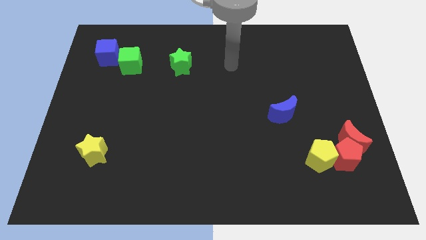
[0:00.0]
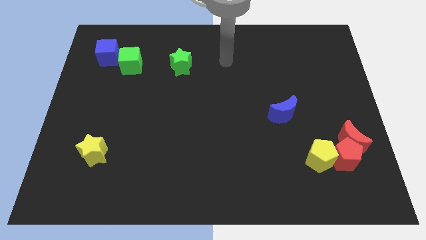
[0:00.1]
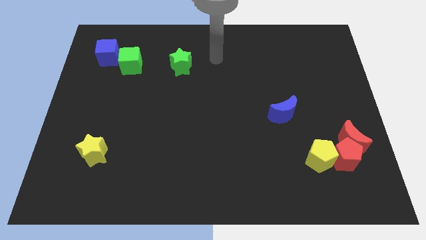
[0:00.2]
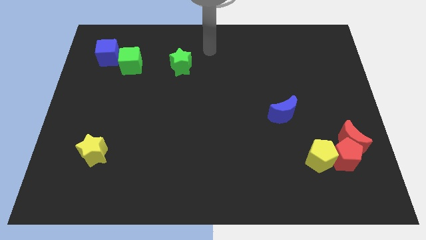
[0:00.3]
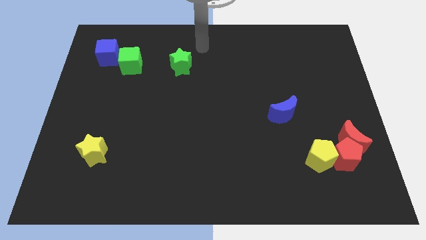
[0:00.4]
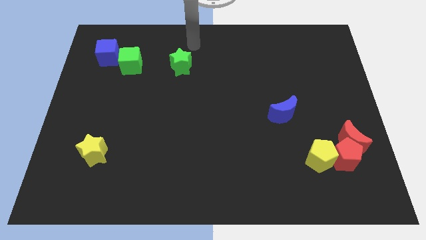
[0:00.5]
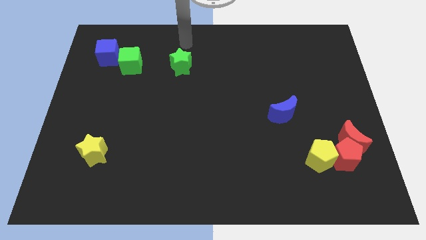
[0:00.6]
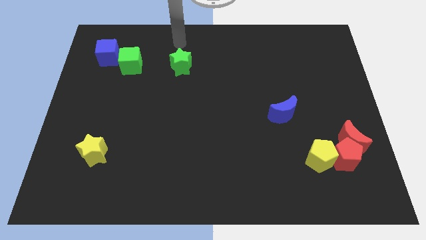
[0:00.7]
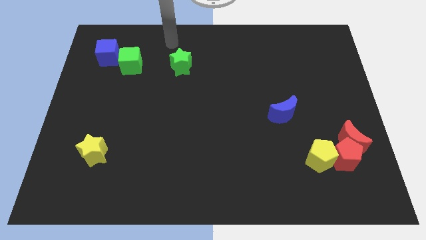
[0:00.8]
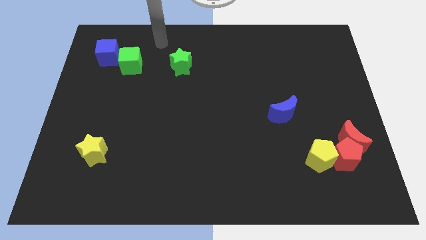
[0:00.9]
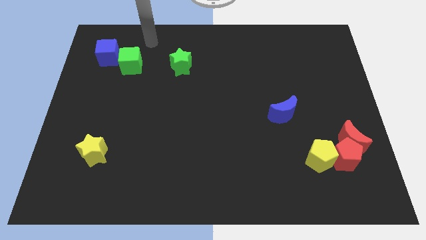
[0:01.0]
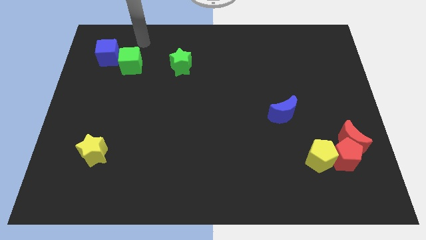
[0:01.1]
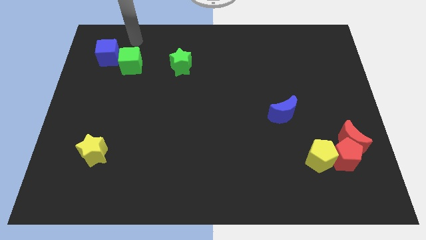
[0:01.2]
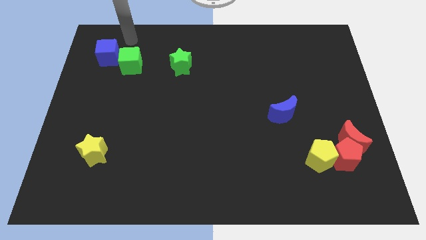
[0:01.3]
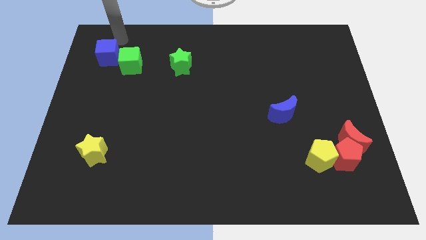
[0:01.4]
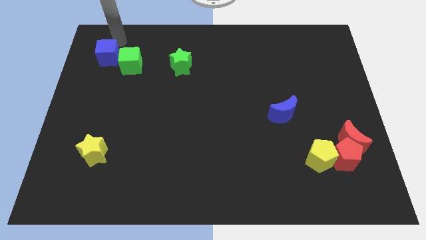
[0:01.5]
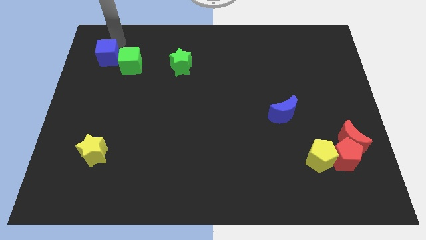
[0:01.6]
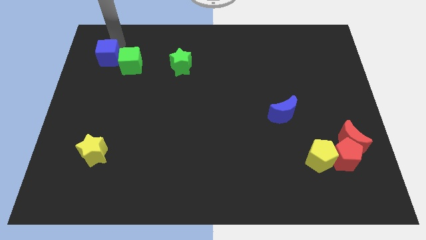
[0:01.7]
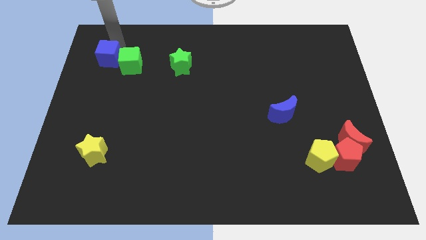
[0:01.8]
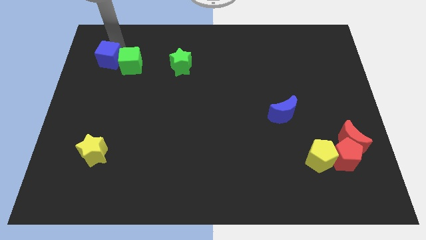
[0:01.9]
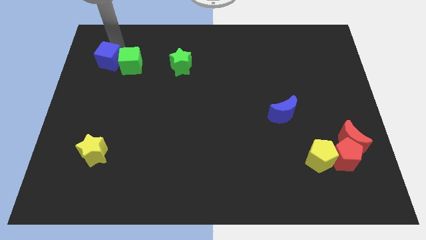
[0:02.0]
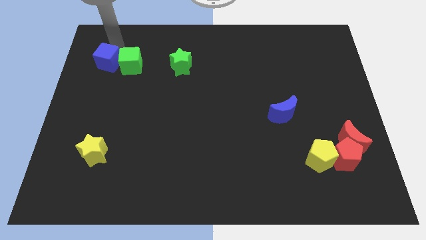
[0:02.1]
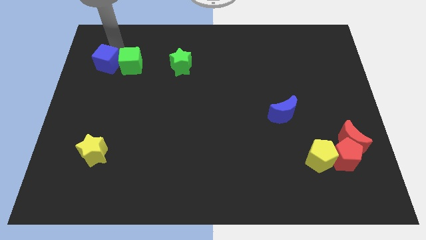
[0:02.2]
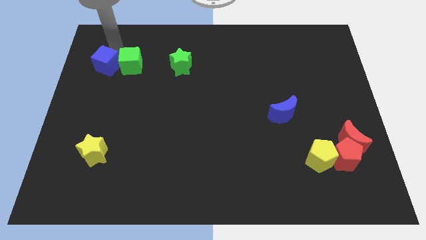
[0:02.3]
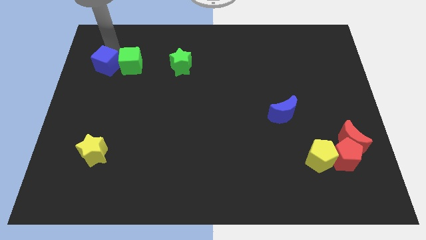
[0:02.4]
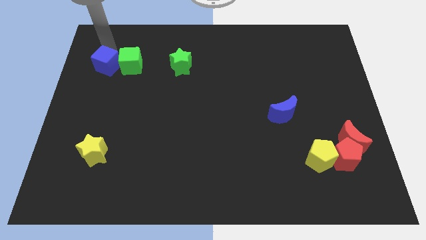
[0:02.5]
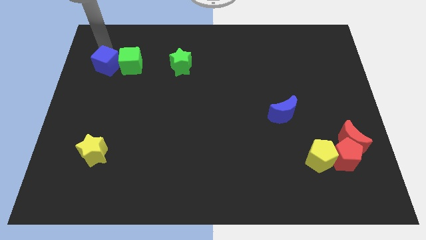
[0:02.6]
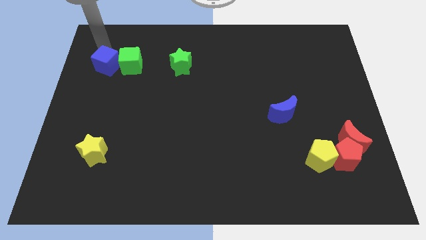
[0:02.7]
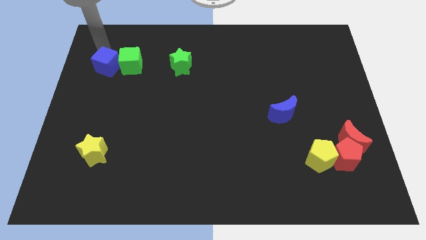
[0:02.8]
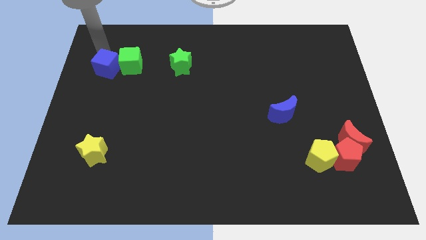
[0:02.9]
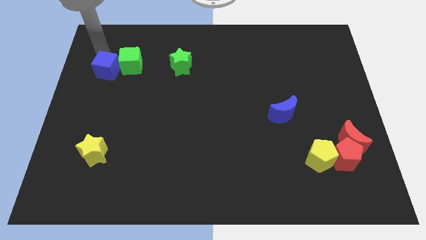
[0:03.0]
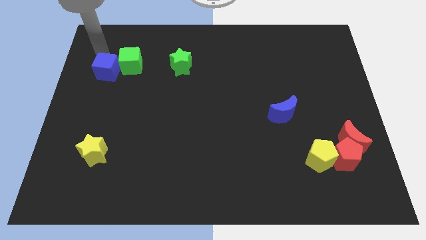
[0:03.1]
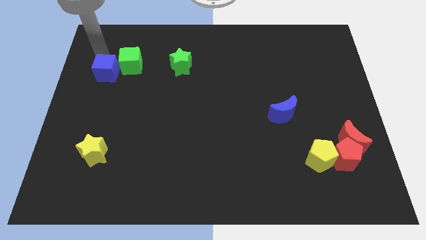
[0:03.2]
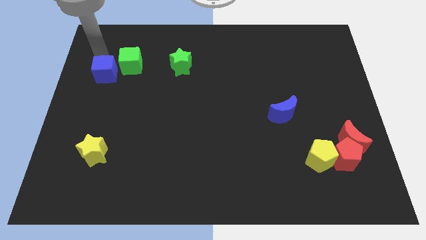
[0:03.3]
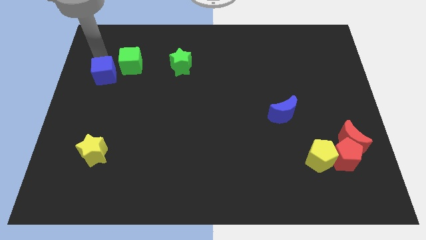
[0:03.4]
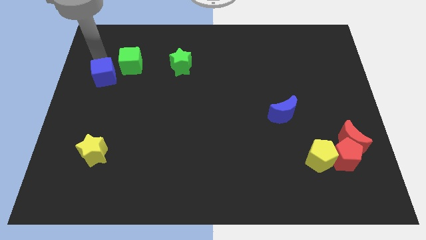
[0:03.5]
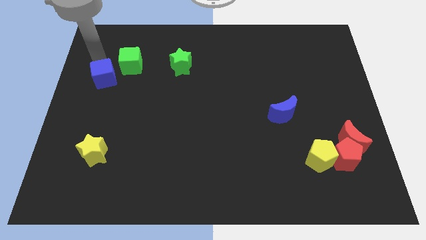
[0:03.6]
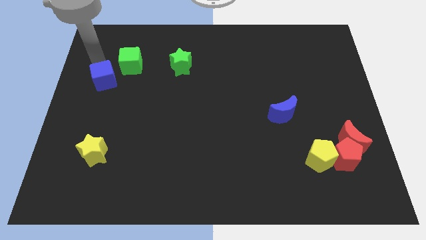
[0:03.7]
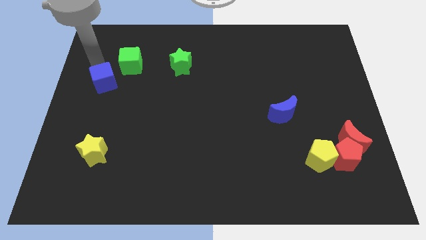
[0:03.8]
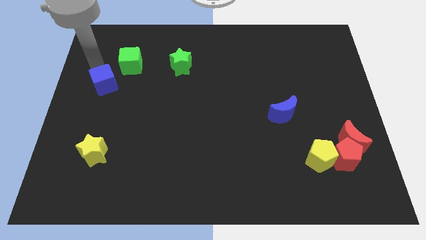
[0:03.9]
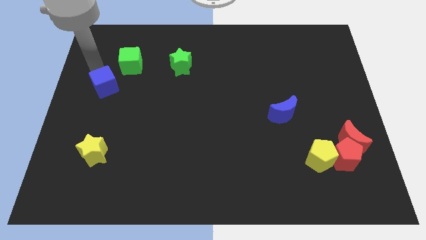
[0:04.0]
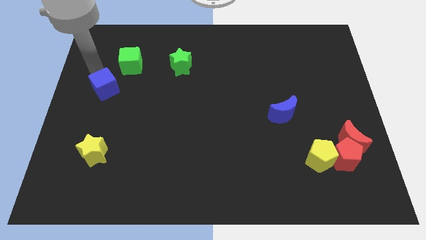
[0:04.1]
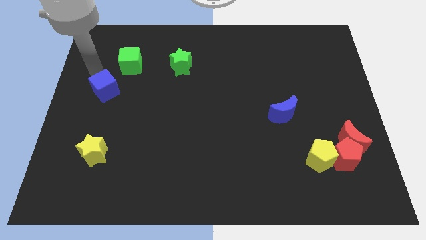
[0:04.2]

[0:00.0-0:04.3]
move the blue cube somewhat downwards and then to the right

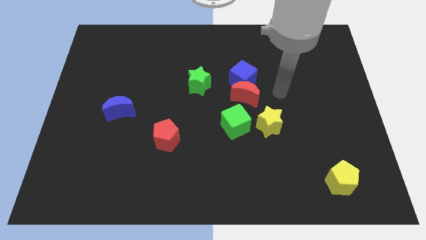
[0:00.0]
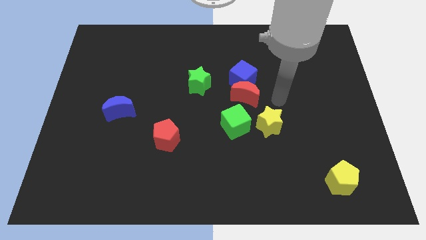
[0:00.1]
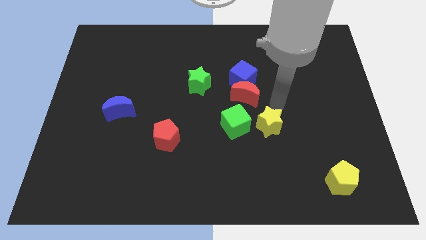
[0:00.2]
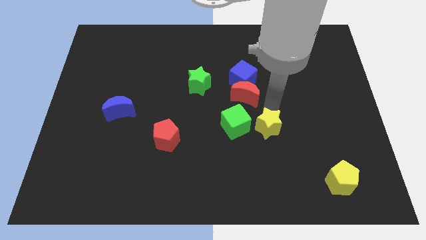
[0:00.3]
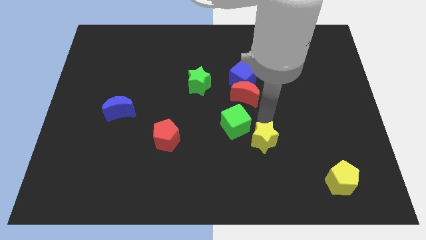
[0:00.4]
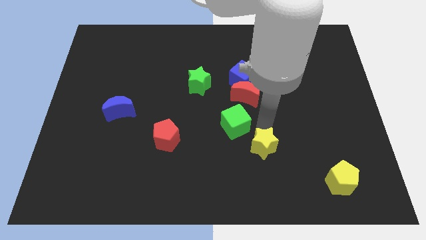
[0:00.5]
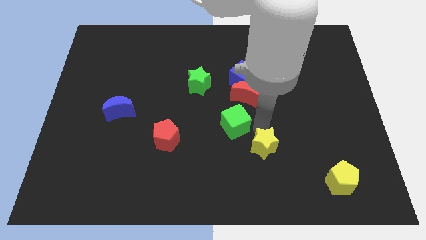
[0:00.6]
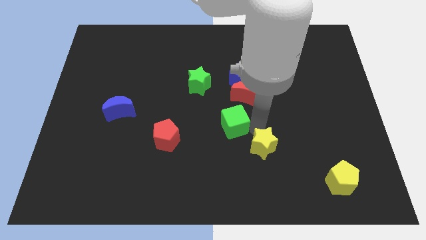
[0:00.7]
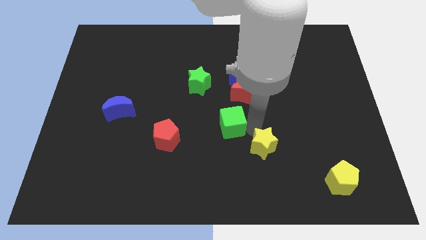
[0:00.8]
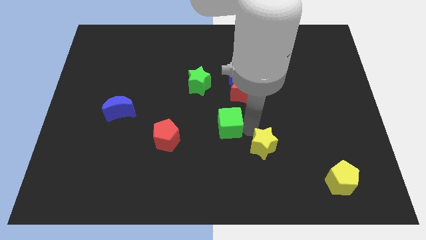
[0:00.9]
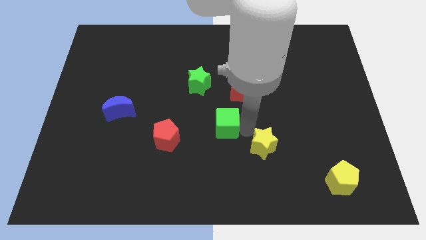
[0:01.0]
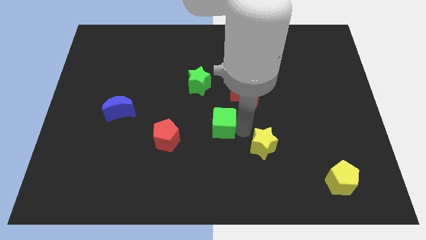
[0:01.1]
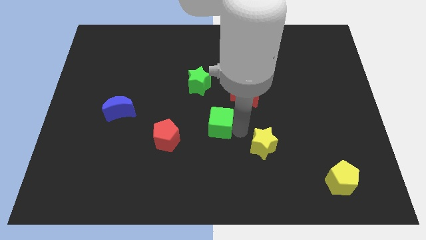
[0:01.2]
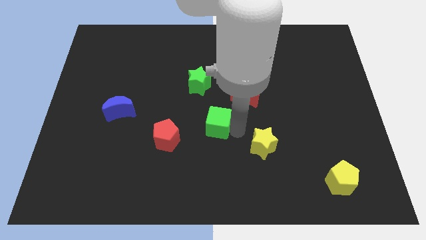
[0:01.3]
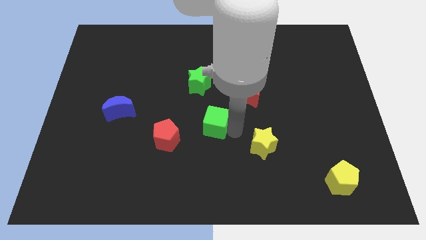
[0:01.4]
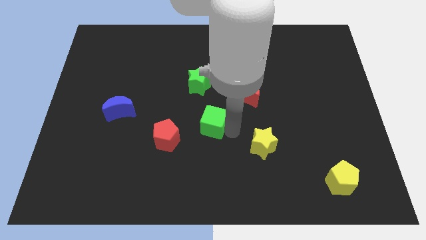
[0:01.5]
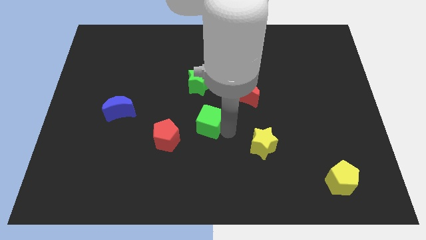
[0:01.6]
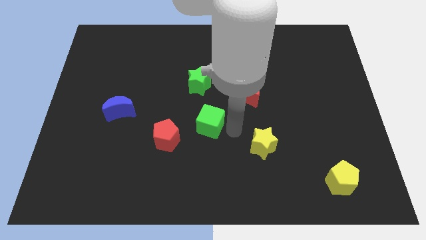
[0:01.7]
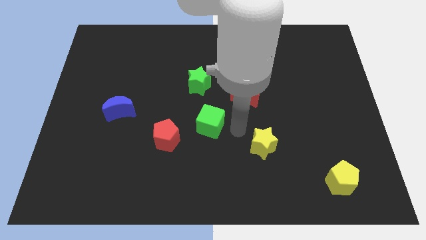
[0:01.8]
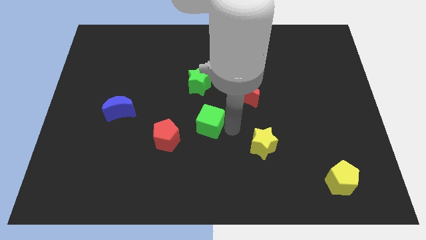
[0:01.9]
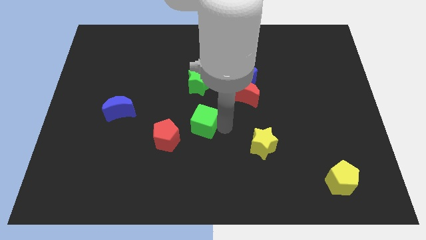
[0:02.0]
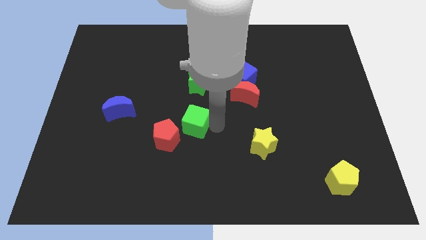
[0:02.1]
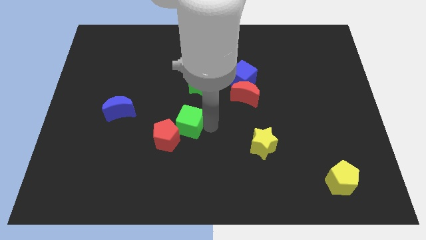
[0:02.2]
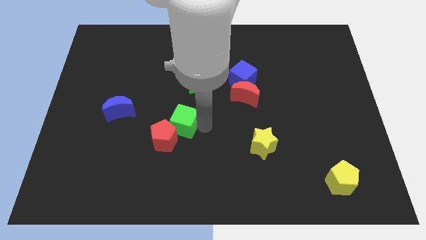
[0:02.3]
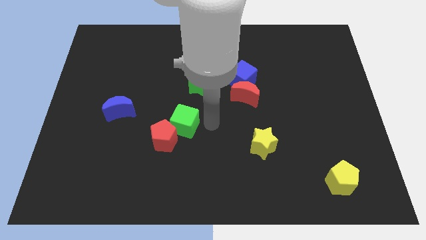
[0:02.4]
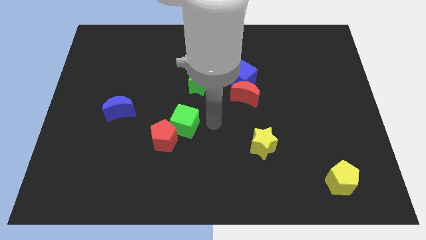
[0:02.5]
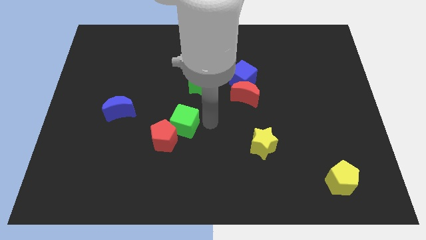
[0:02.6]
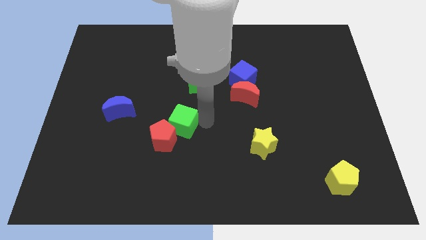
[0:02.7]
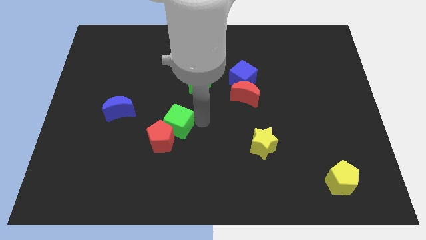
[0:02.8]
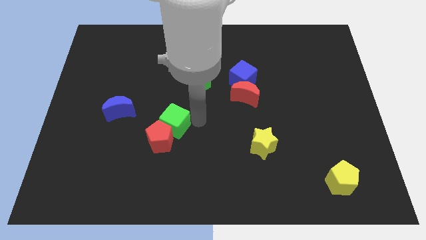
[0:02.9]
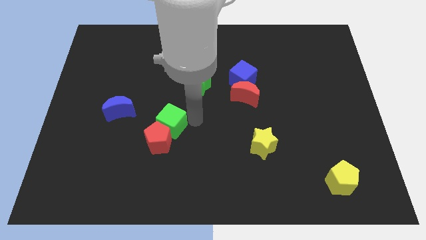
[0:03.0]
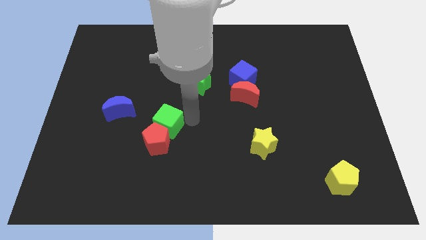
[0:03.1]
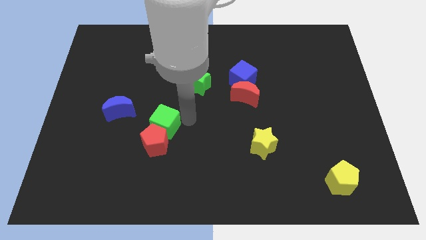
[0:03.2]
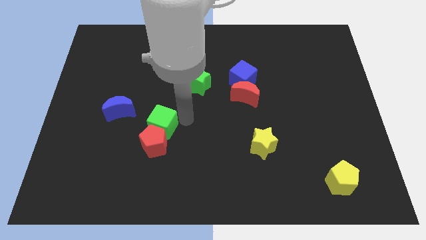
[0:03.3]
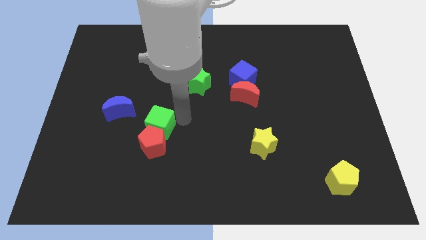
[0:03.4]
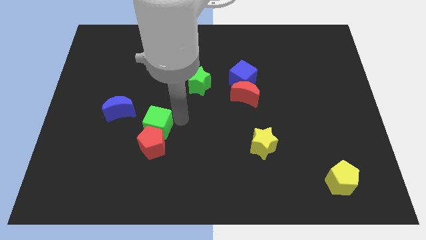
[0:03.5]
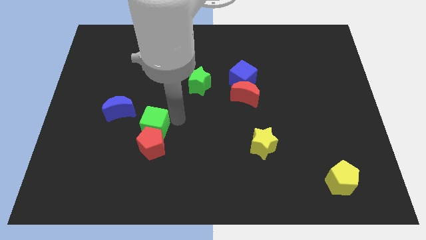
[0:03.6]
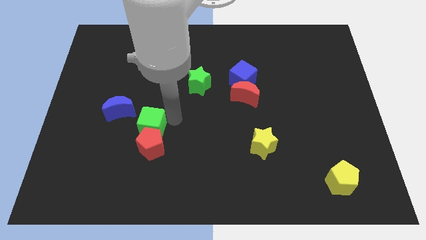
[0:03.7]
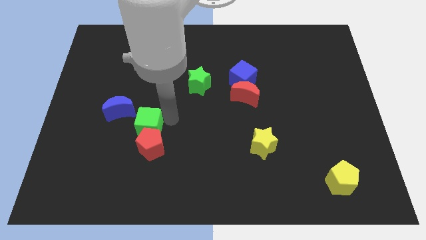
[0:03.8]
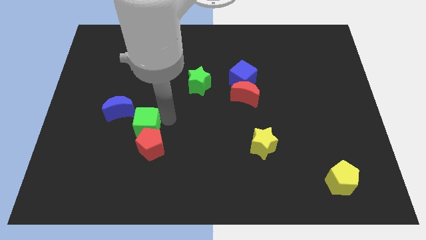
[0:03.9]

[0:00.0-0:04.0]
slide the green cube to the left
